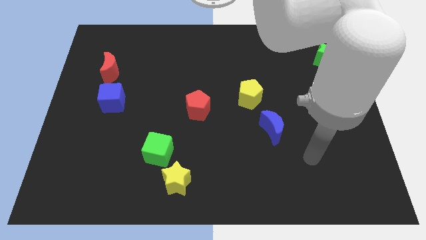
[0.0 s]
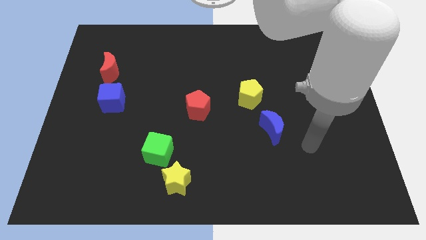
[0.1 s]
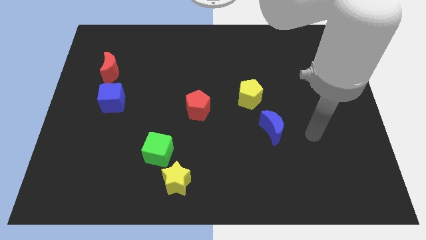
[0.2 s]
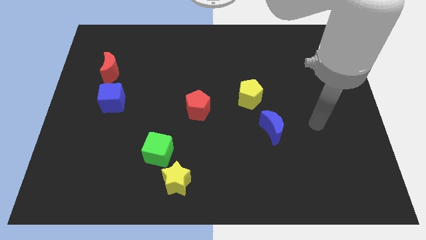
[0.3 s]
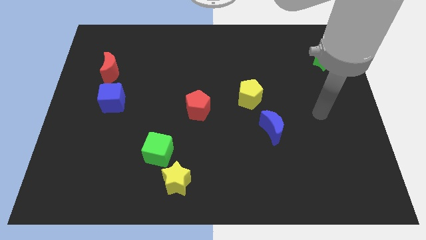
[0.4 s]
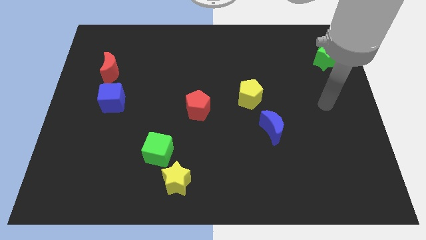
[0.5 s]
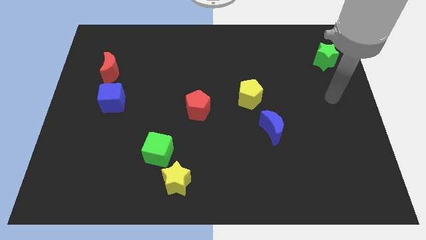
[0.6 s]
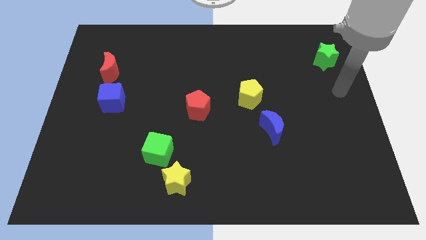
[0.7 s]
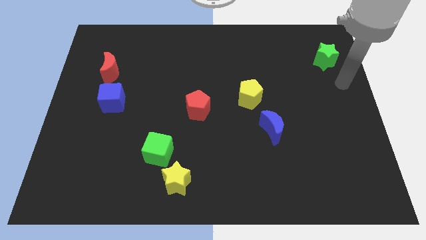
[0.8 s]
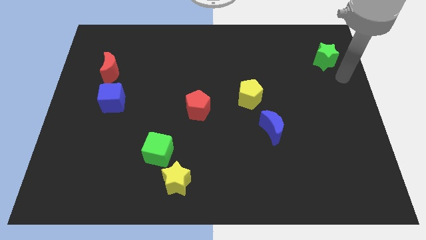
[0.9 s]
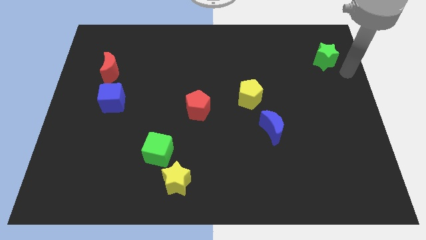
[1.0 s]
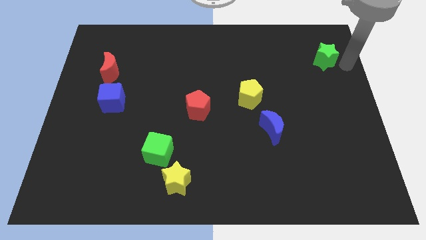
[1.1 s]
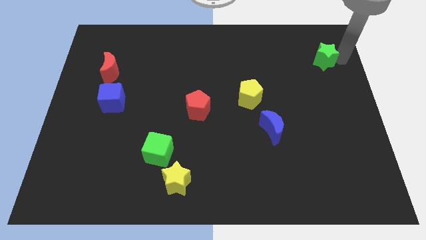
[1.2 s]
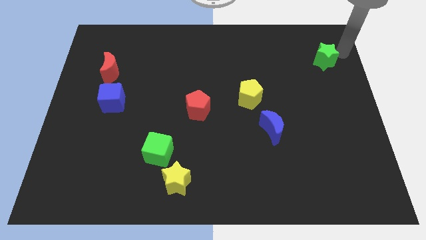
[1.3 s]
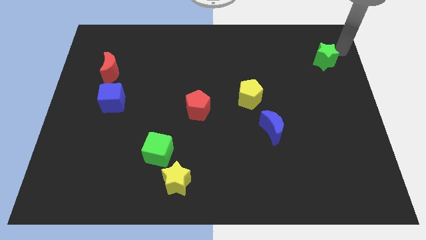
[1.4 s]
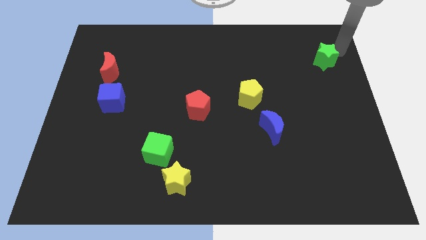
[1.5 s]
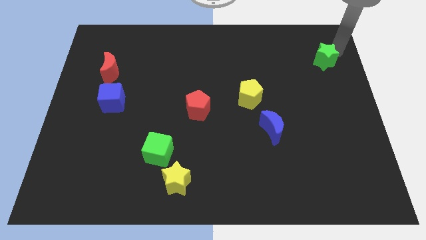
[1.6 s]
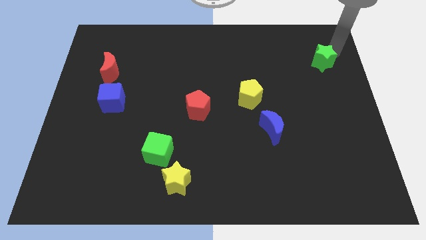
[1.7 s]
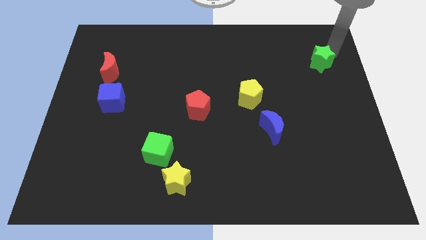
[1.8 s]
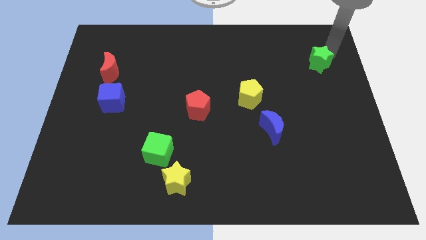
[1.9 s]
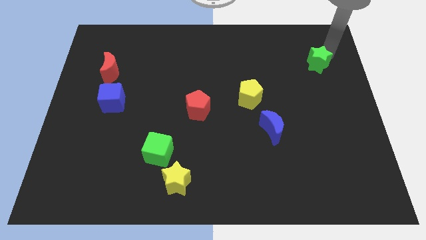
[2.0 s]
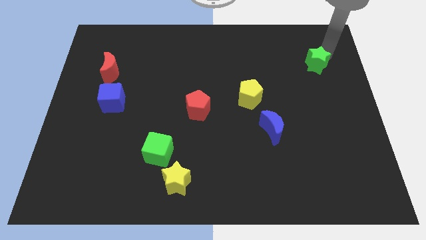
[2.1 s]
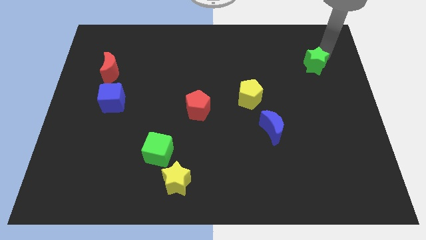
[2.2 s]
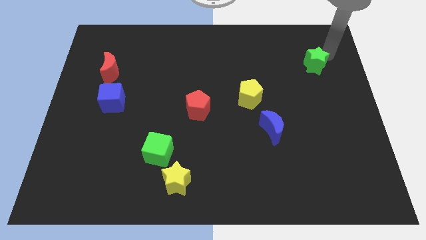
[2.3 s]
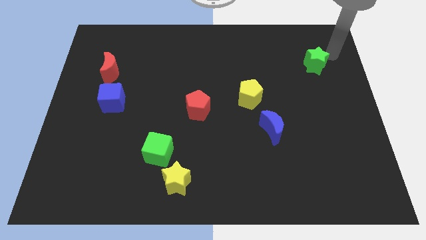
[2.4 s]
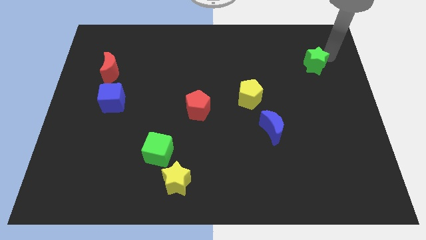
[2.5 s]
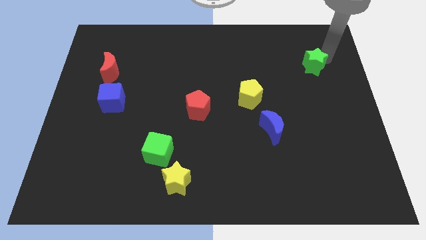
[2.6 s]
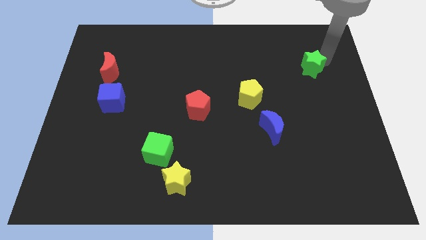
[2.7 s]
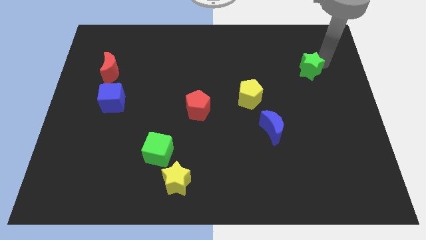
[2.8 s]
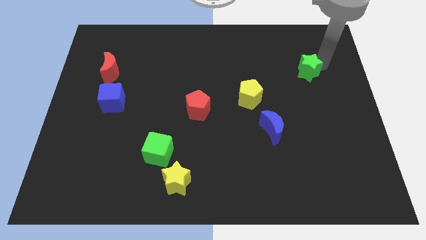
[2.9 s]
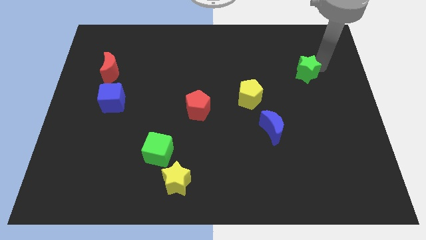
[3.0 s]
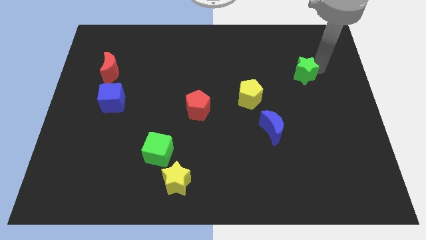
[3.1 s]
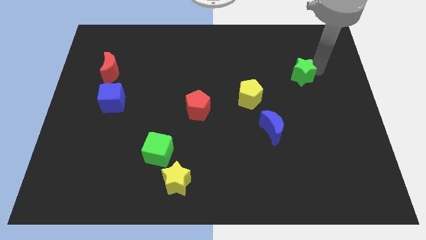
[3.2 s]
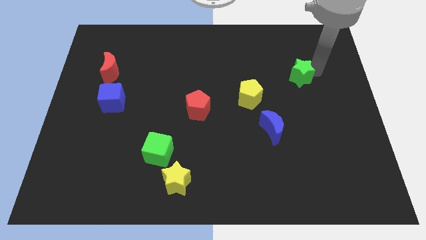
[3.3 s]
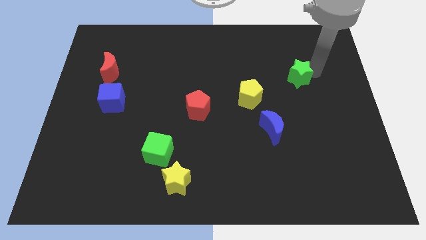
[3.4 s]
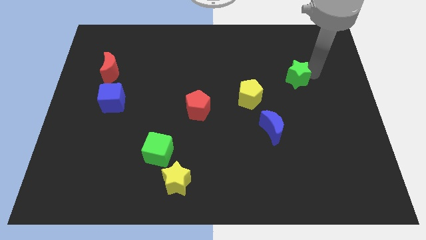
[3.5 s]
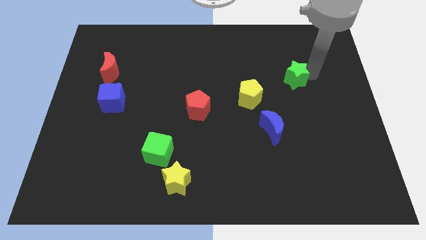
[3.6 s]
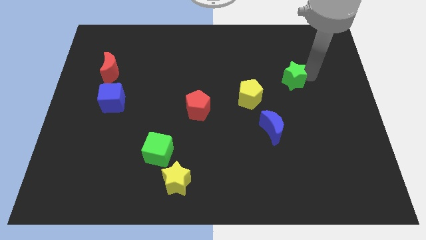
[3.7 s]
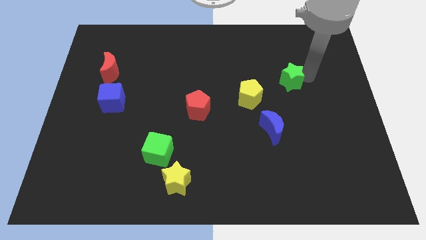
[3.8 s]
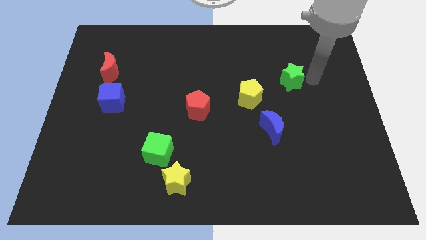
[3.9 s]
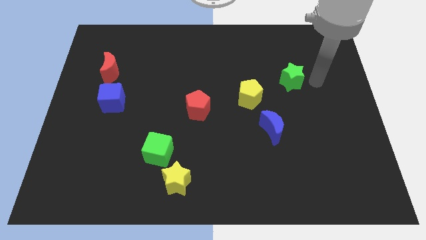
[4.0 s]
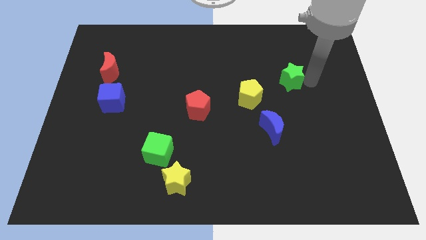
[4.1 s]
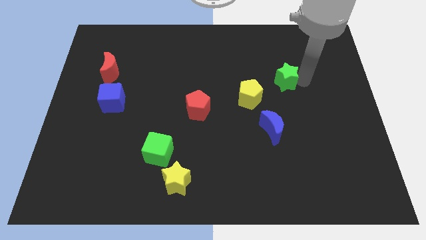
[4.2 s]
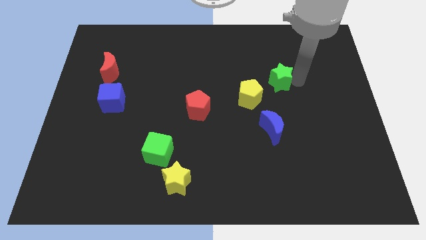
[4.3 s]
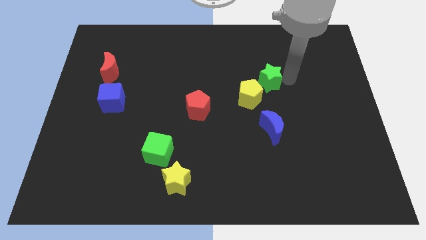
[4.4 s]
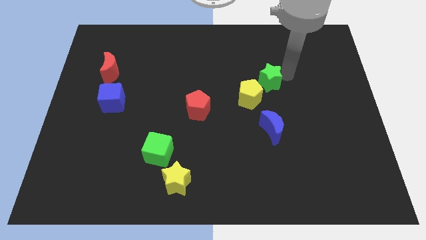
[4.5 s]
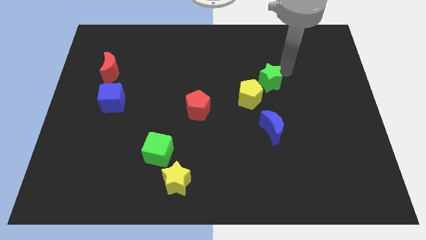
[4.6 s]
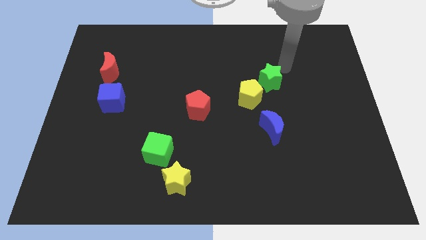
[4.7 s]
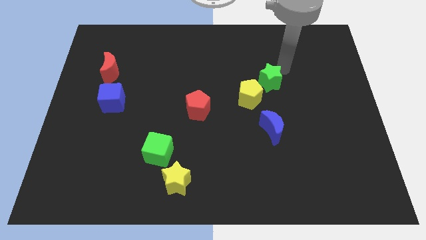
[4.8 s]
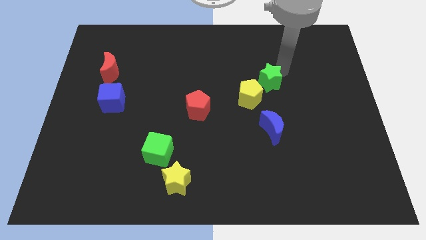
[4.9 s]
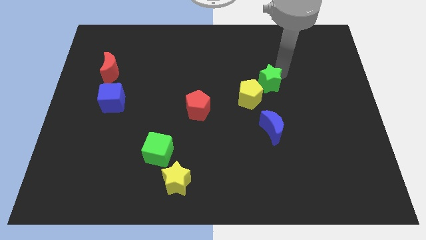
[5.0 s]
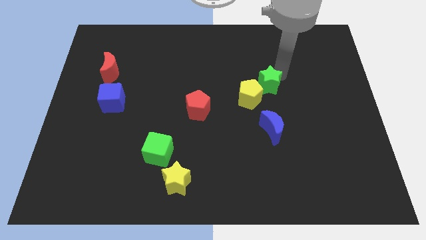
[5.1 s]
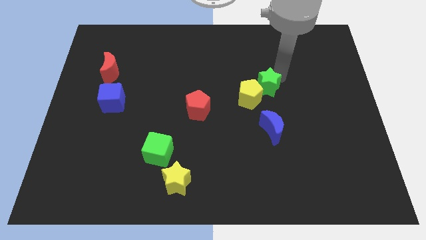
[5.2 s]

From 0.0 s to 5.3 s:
push the green star towards the yellow pentagon

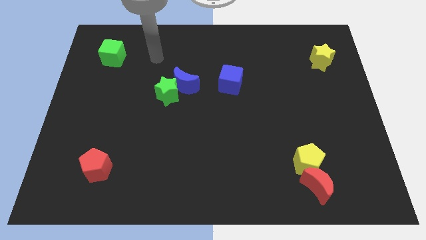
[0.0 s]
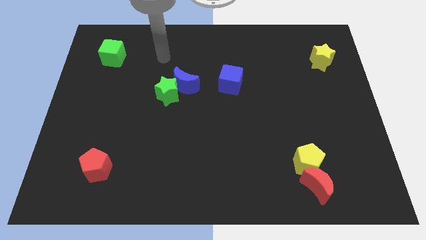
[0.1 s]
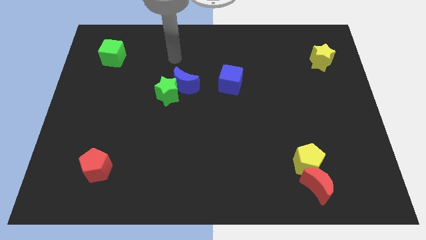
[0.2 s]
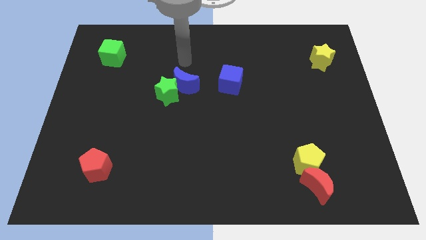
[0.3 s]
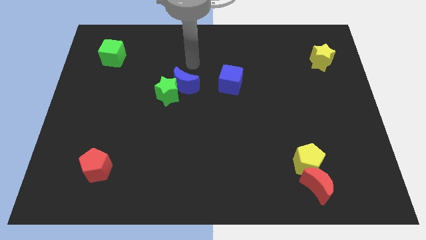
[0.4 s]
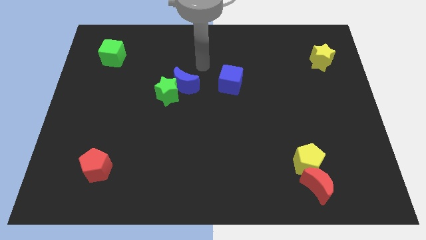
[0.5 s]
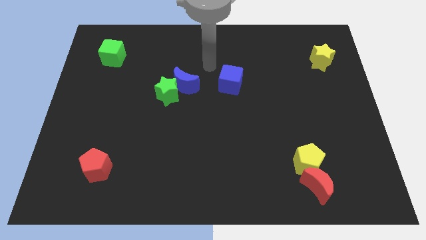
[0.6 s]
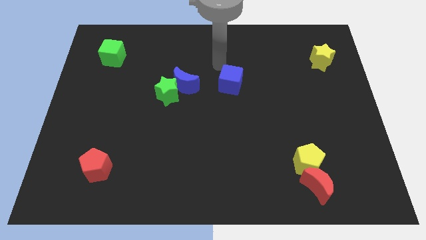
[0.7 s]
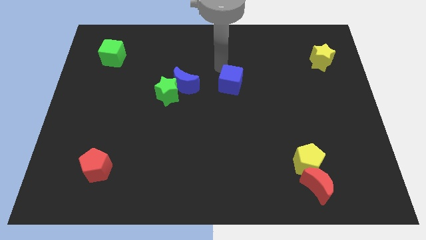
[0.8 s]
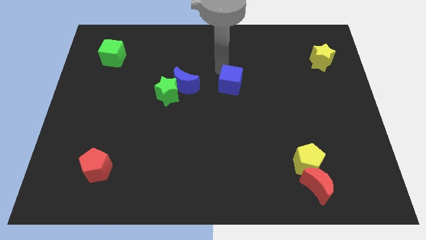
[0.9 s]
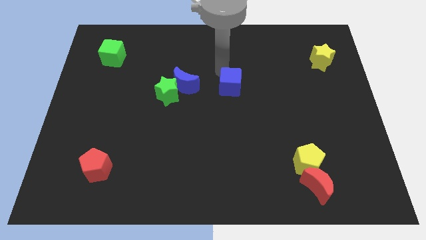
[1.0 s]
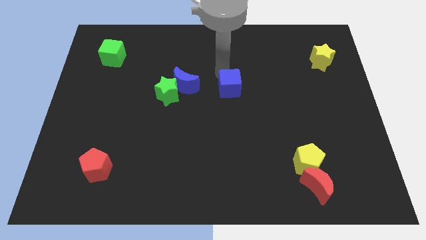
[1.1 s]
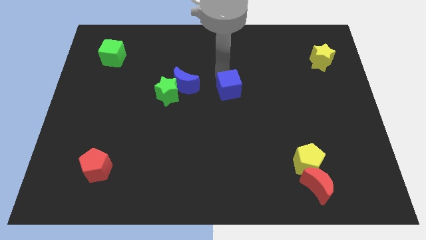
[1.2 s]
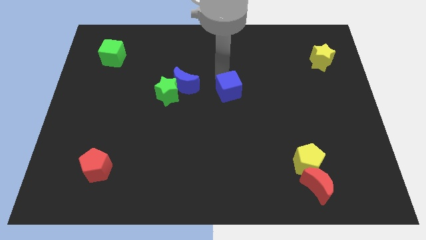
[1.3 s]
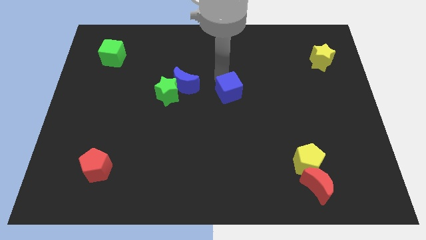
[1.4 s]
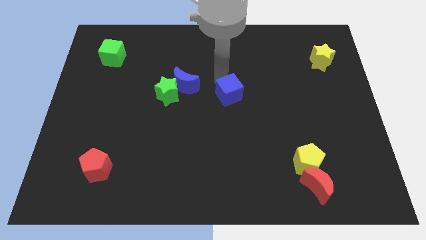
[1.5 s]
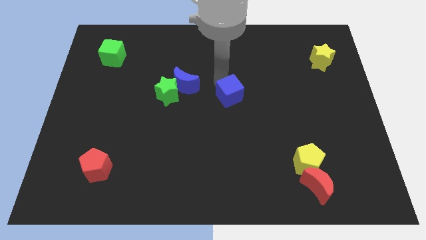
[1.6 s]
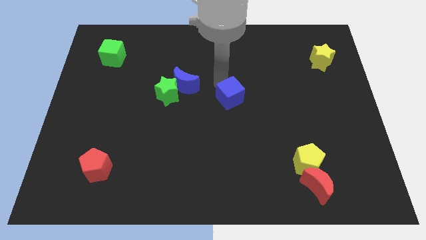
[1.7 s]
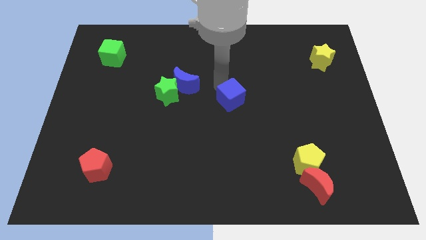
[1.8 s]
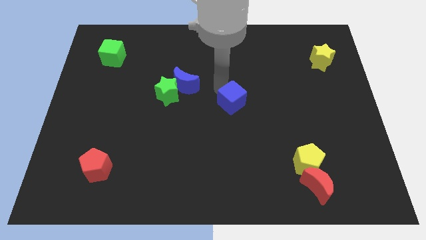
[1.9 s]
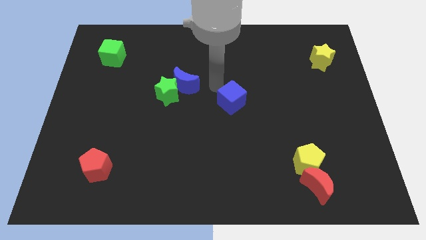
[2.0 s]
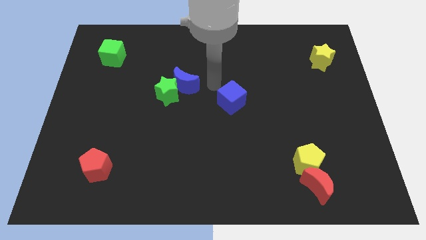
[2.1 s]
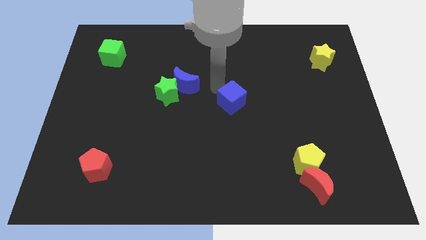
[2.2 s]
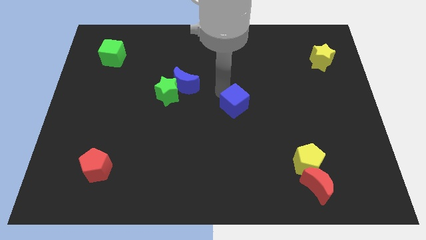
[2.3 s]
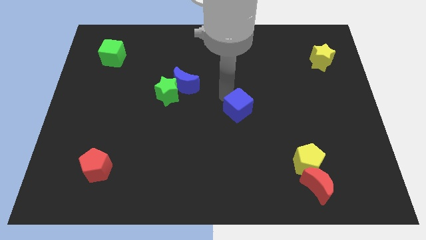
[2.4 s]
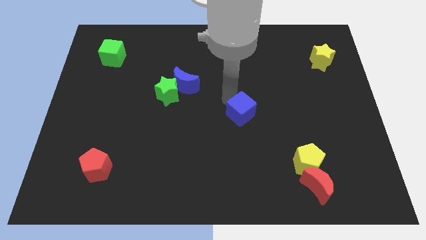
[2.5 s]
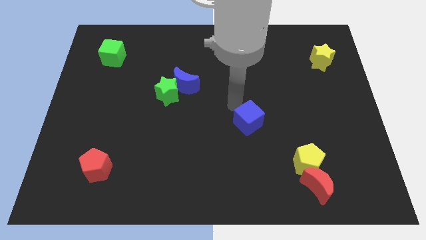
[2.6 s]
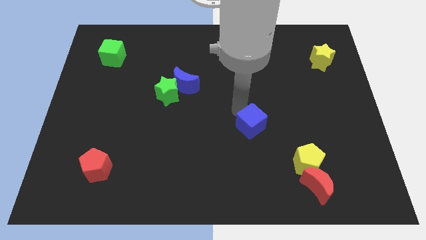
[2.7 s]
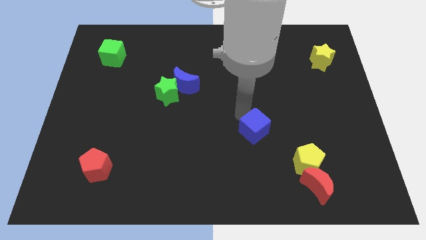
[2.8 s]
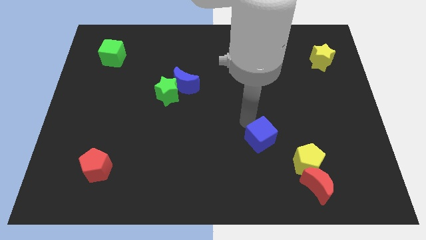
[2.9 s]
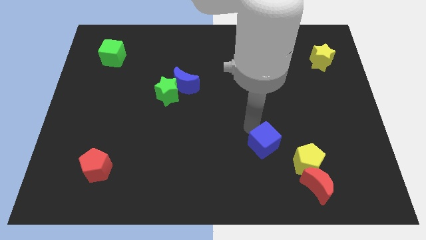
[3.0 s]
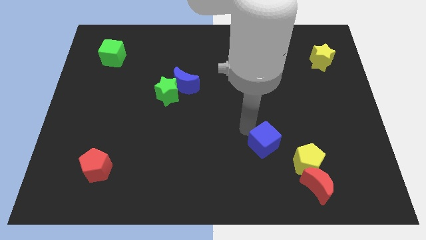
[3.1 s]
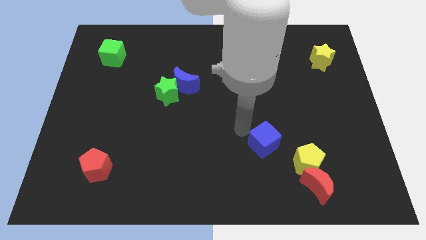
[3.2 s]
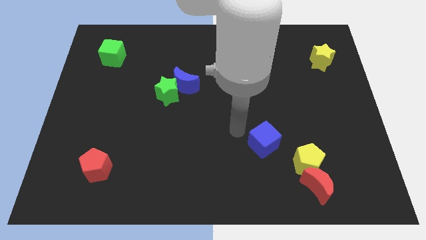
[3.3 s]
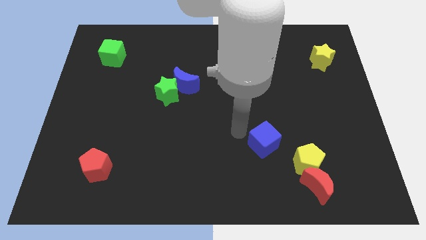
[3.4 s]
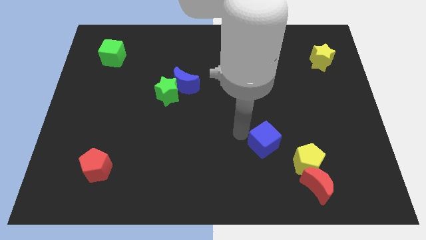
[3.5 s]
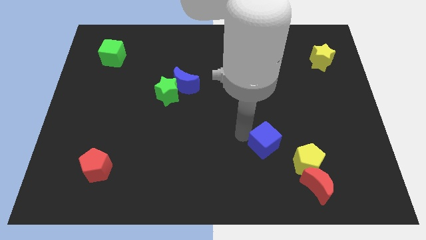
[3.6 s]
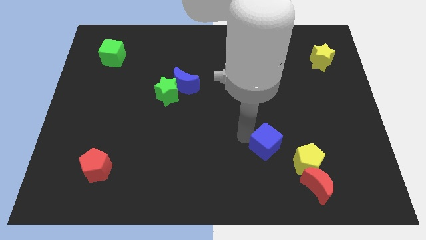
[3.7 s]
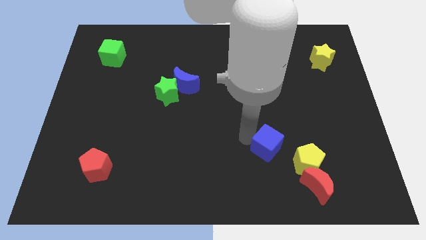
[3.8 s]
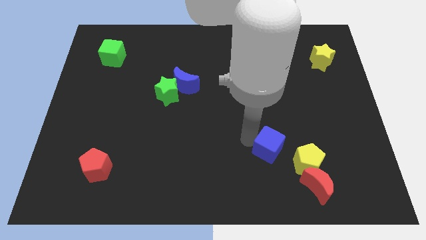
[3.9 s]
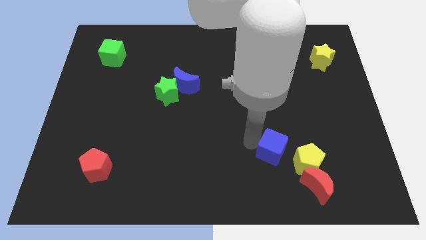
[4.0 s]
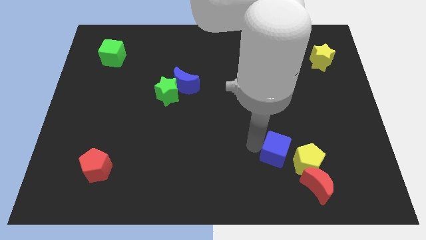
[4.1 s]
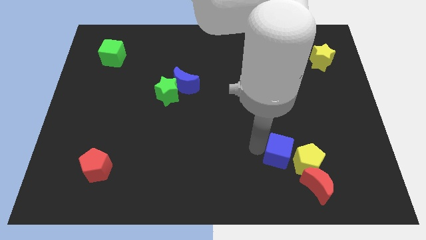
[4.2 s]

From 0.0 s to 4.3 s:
put the blue cube next to the yellow pentagon
